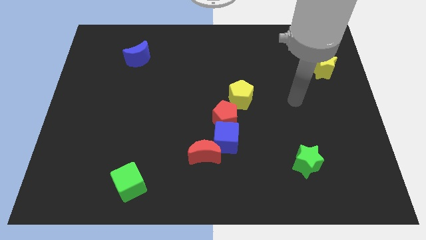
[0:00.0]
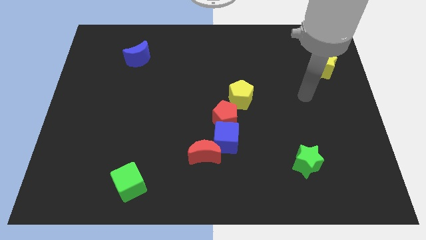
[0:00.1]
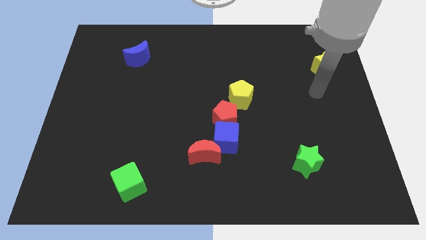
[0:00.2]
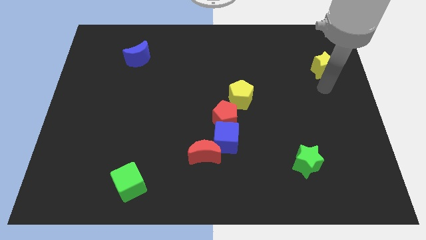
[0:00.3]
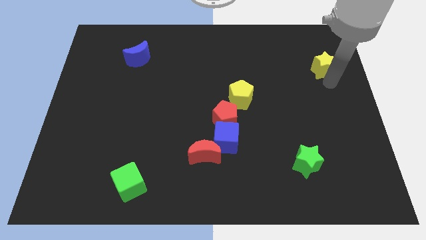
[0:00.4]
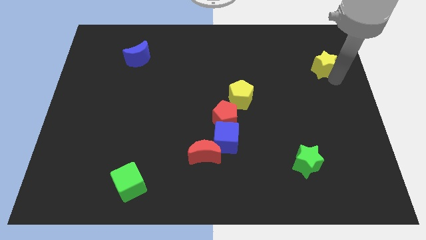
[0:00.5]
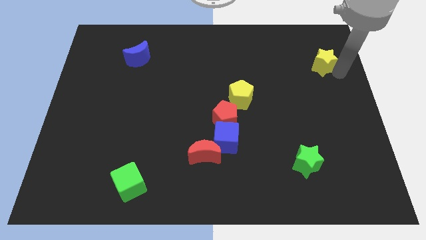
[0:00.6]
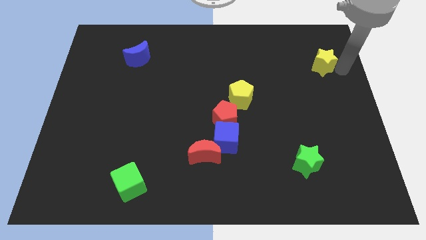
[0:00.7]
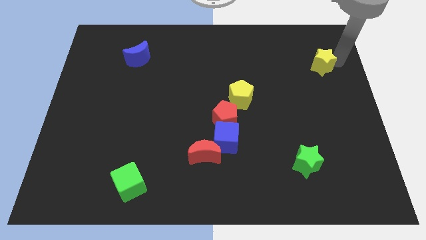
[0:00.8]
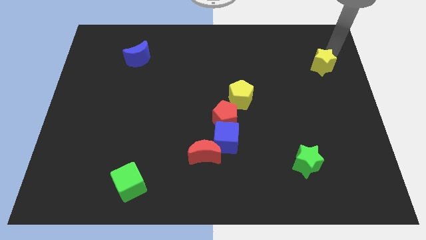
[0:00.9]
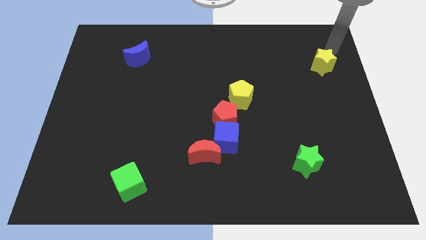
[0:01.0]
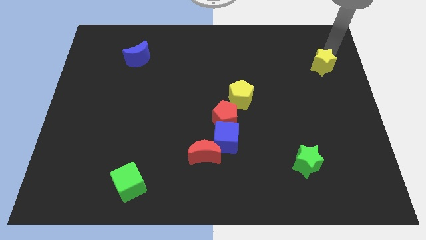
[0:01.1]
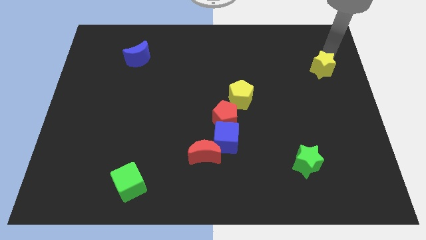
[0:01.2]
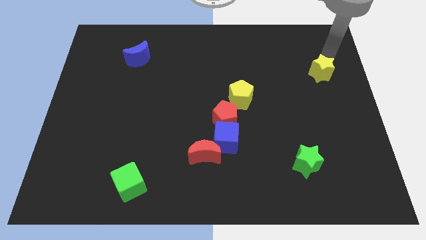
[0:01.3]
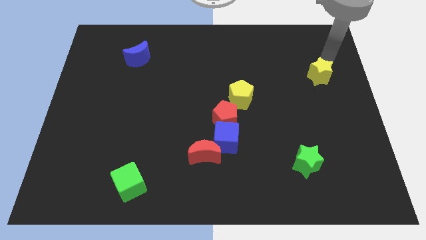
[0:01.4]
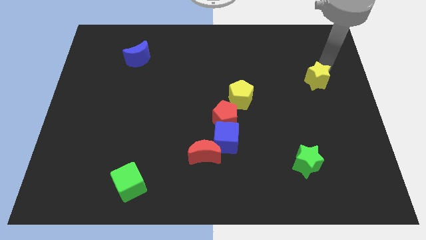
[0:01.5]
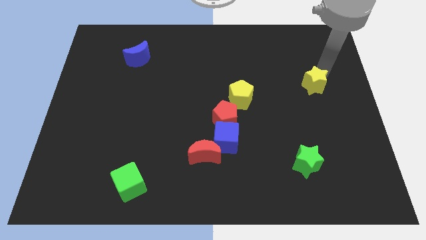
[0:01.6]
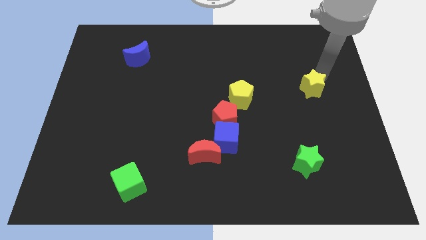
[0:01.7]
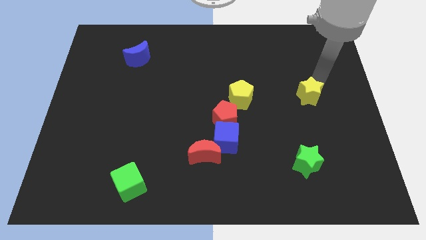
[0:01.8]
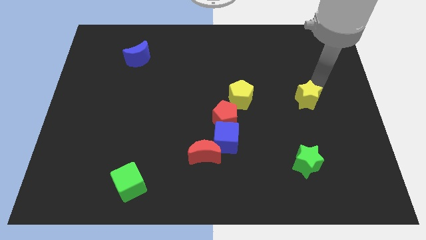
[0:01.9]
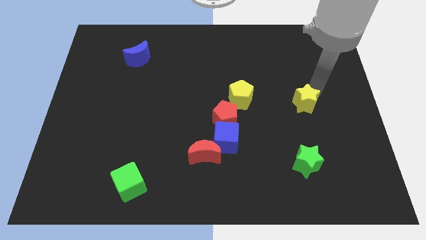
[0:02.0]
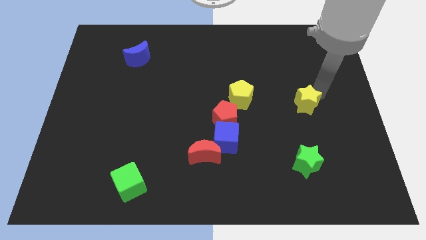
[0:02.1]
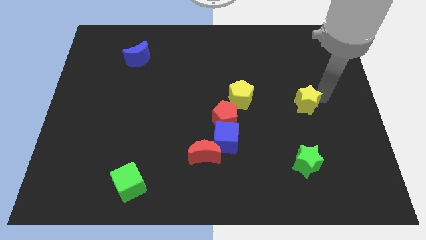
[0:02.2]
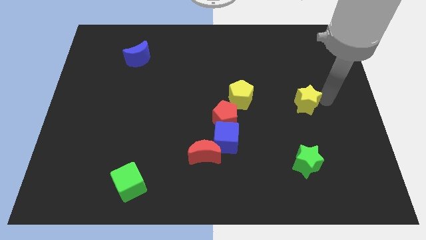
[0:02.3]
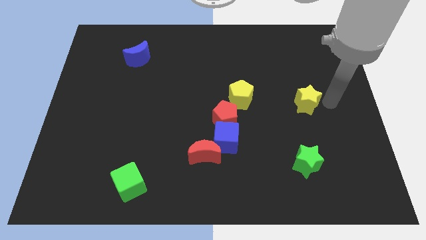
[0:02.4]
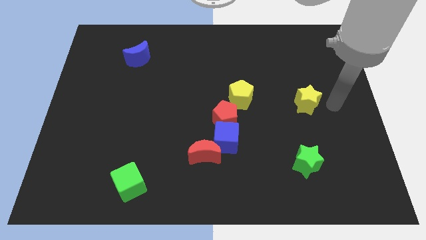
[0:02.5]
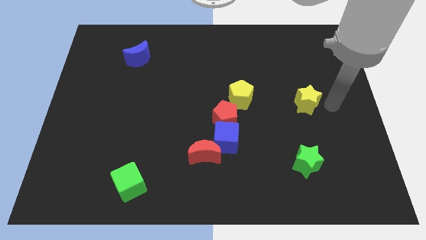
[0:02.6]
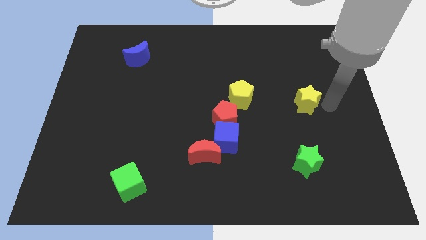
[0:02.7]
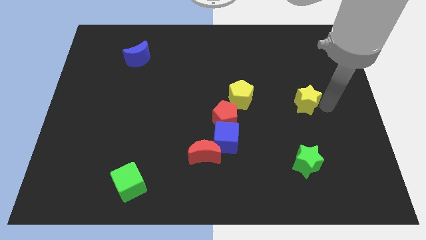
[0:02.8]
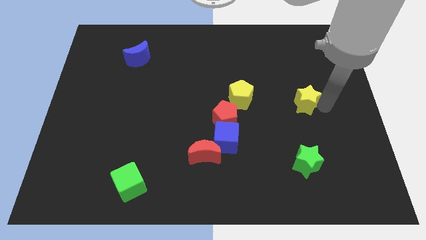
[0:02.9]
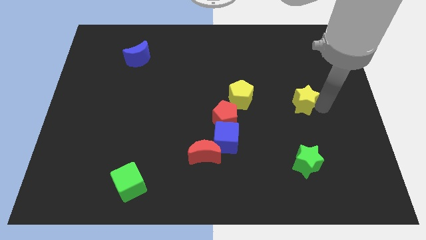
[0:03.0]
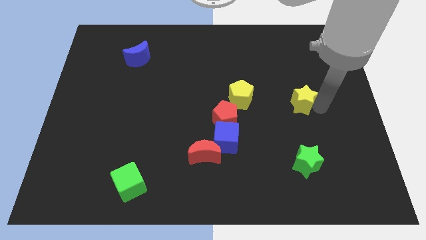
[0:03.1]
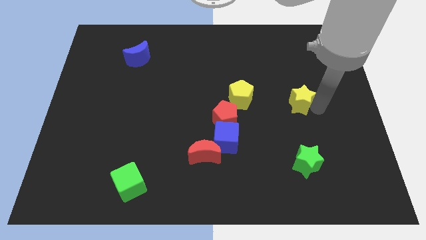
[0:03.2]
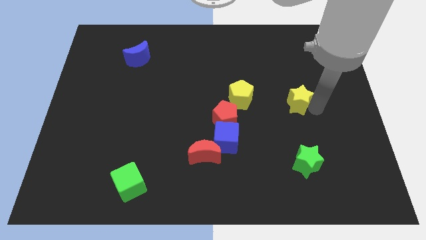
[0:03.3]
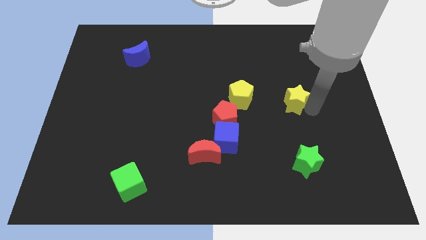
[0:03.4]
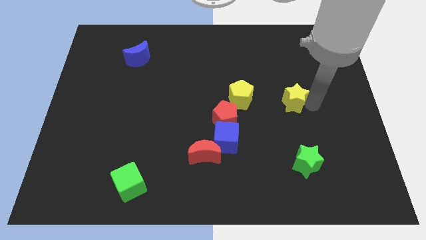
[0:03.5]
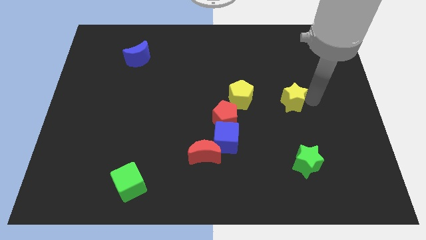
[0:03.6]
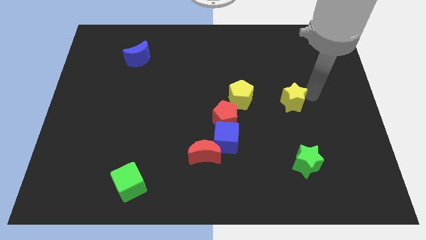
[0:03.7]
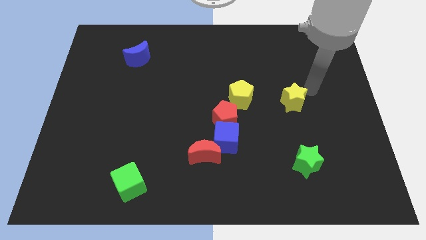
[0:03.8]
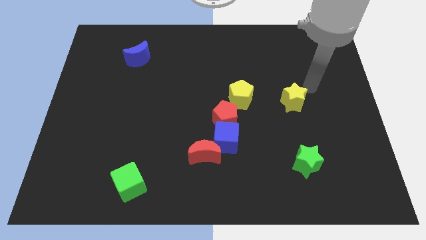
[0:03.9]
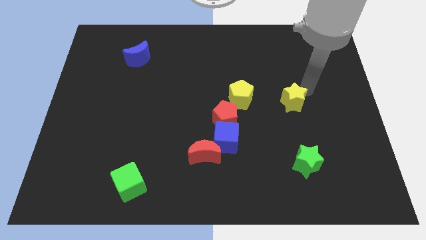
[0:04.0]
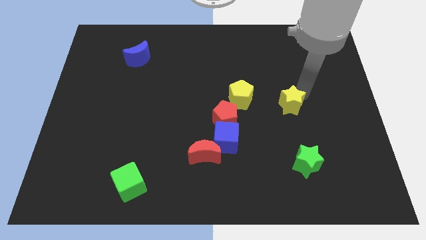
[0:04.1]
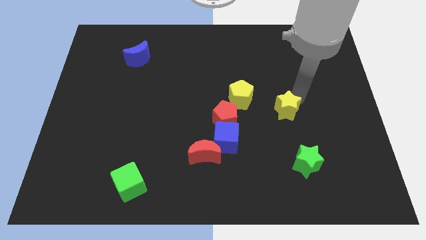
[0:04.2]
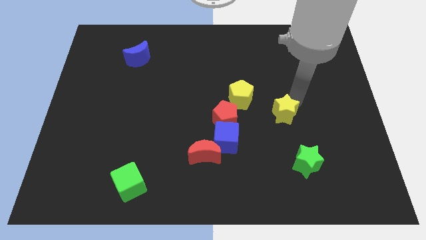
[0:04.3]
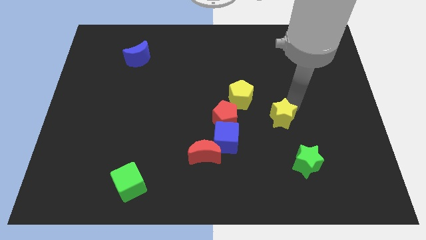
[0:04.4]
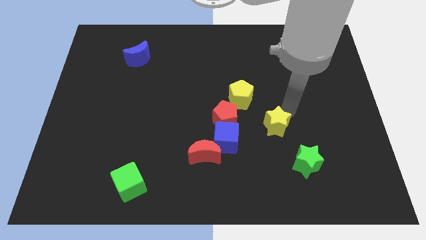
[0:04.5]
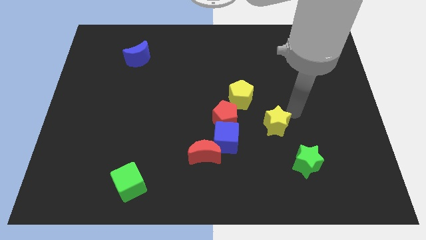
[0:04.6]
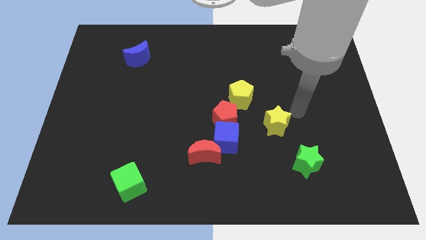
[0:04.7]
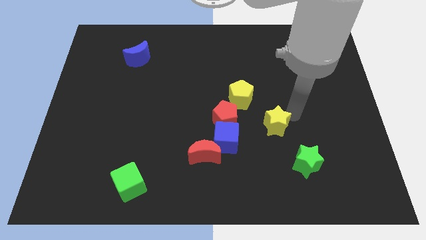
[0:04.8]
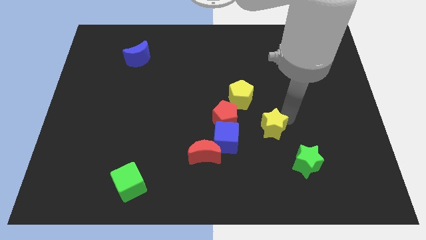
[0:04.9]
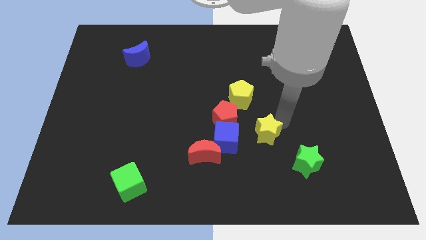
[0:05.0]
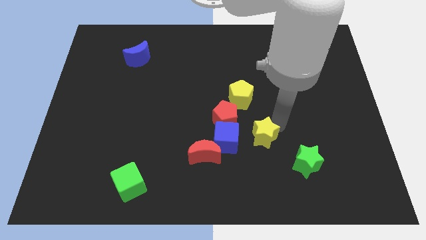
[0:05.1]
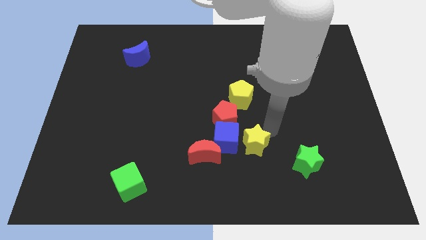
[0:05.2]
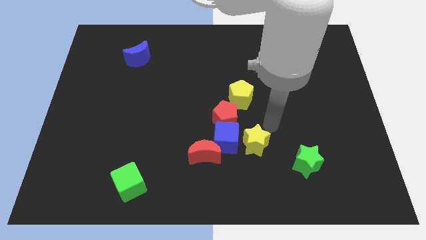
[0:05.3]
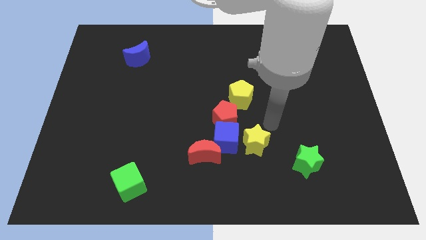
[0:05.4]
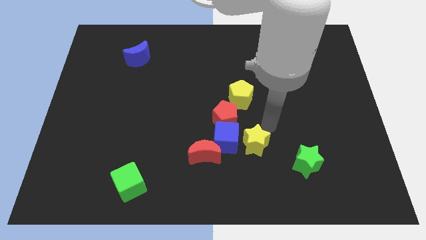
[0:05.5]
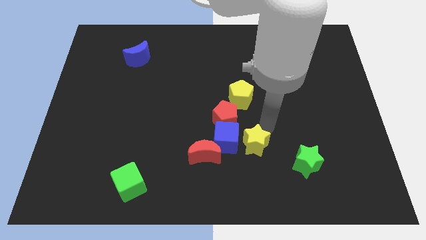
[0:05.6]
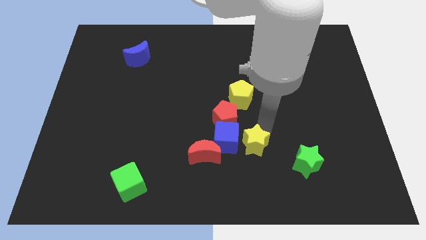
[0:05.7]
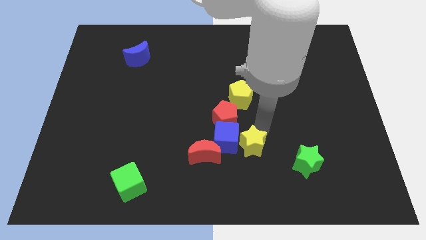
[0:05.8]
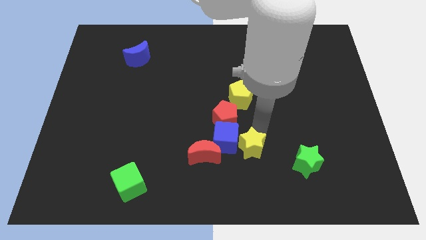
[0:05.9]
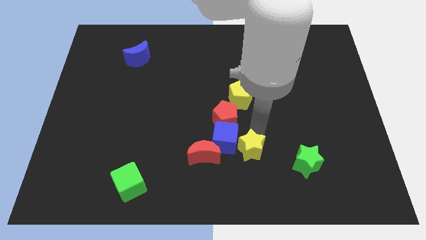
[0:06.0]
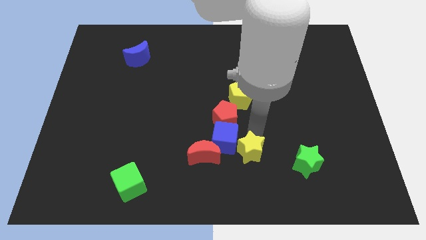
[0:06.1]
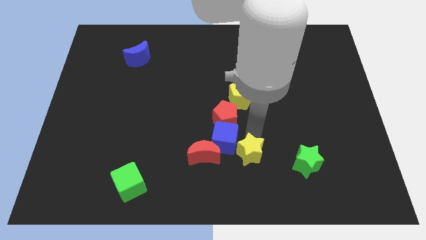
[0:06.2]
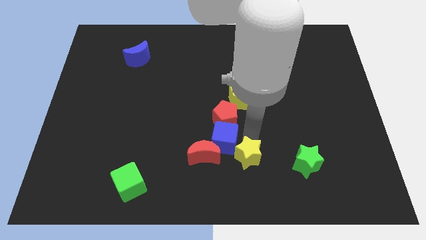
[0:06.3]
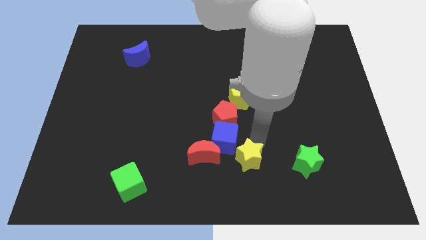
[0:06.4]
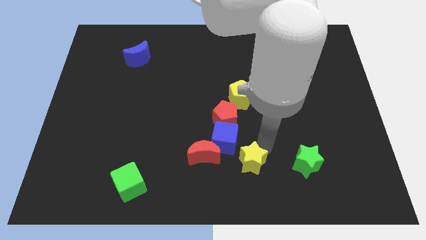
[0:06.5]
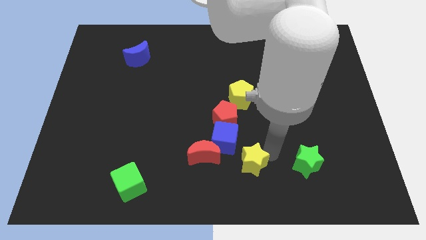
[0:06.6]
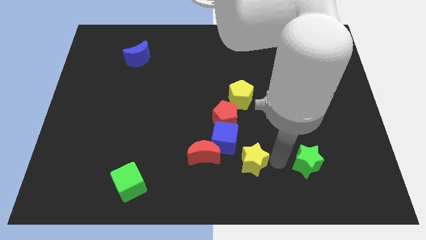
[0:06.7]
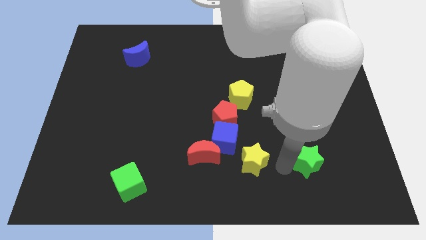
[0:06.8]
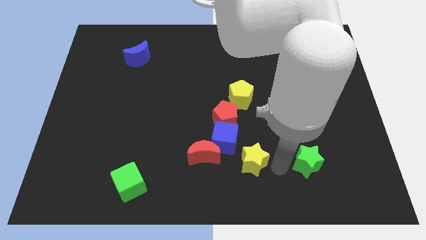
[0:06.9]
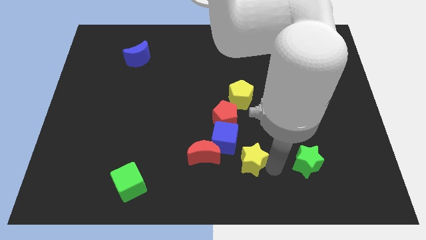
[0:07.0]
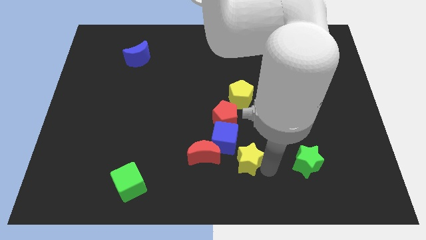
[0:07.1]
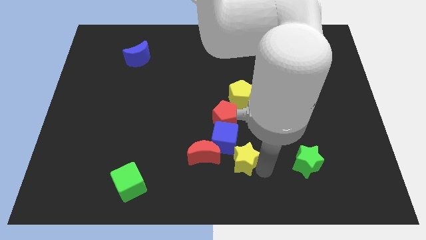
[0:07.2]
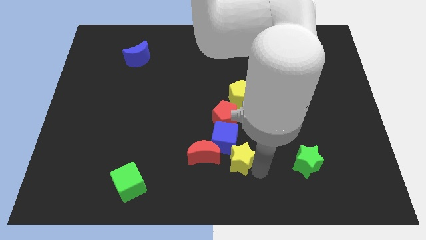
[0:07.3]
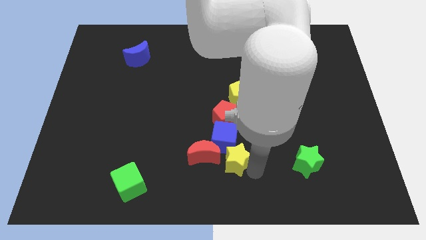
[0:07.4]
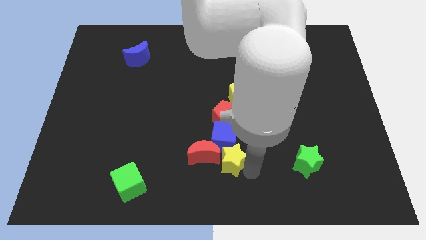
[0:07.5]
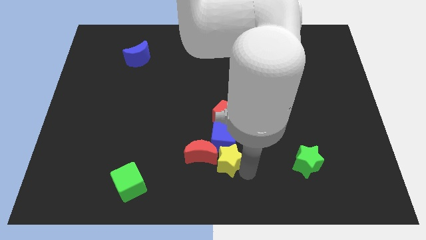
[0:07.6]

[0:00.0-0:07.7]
slide the yellow star to the red moon
